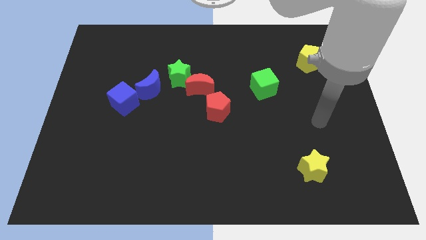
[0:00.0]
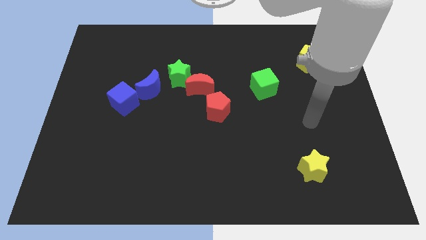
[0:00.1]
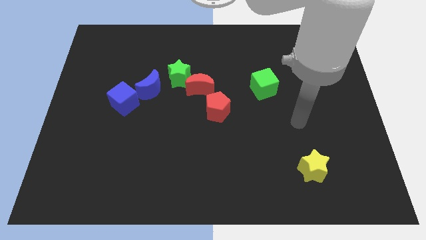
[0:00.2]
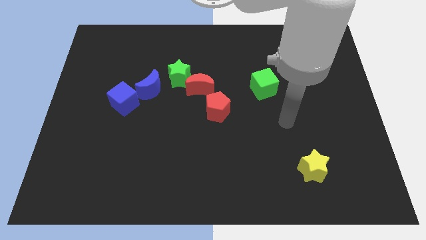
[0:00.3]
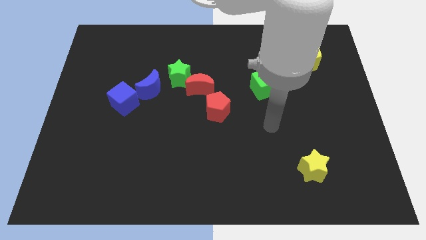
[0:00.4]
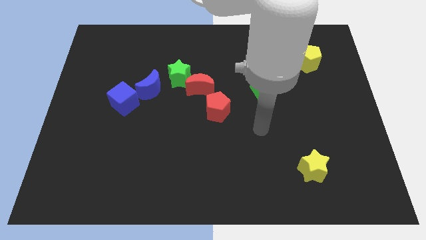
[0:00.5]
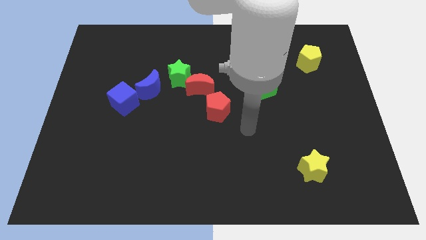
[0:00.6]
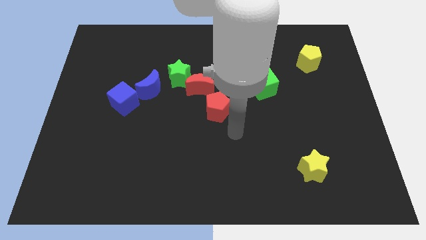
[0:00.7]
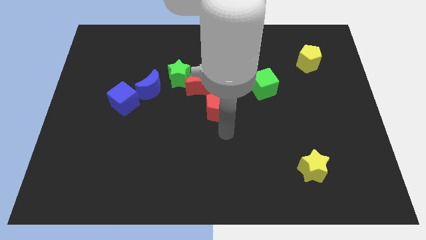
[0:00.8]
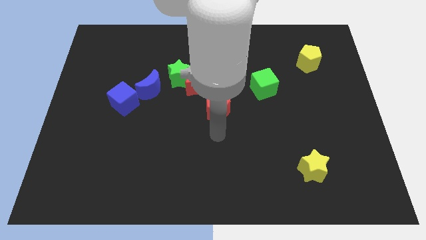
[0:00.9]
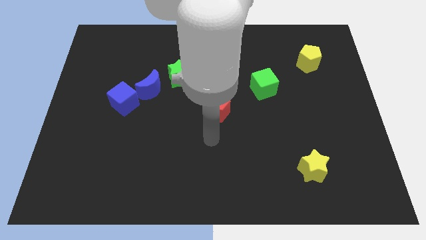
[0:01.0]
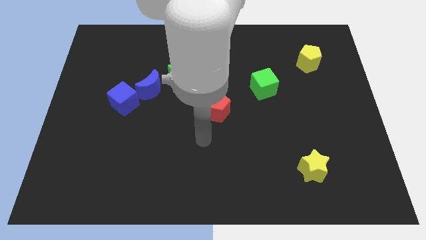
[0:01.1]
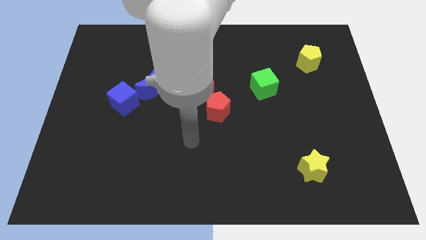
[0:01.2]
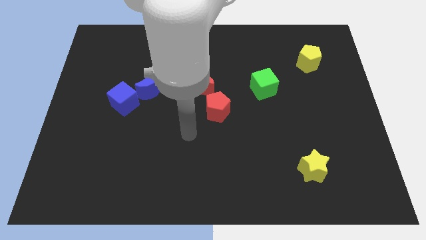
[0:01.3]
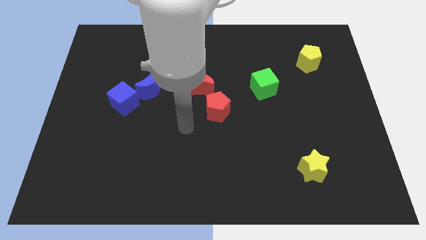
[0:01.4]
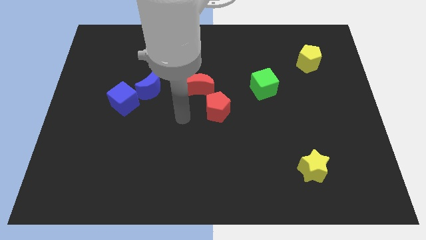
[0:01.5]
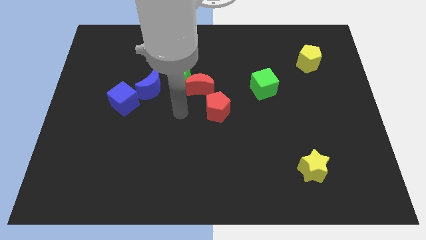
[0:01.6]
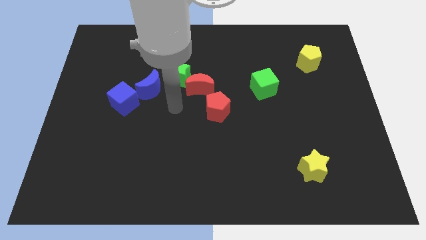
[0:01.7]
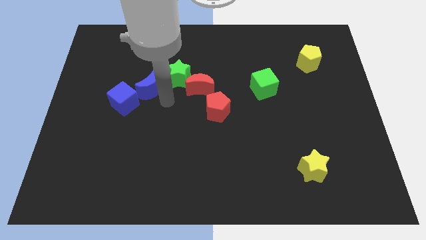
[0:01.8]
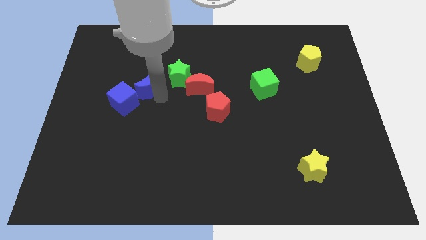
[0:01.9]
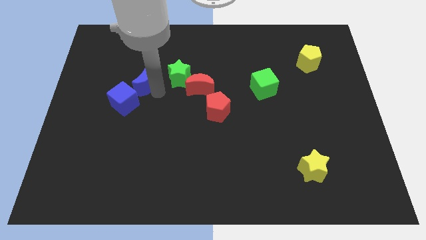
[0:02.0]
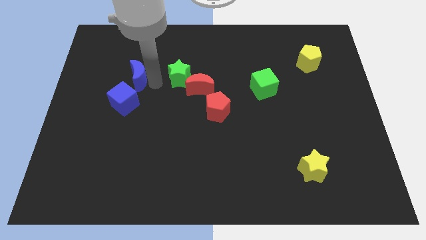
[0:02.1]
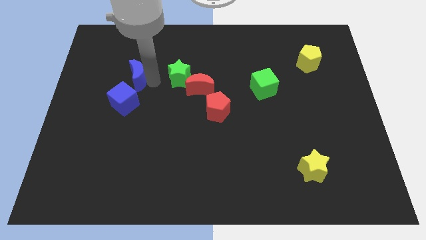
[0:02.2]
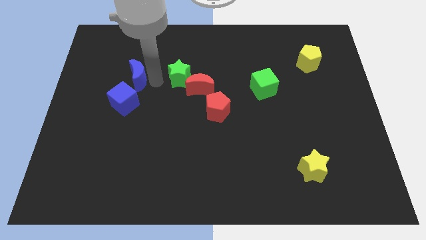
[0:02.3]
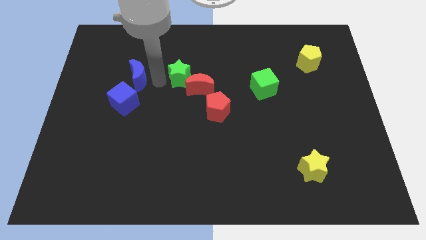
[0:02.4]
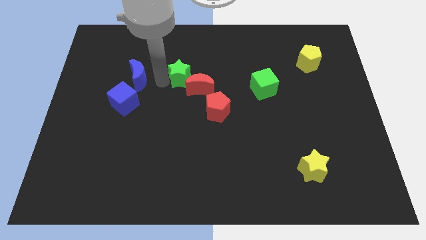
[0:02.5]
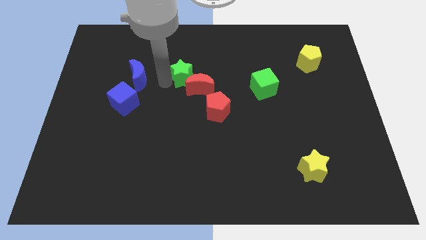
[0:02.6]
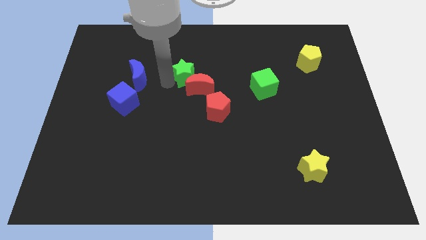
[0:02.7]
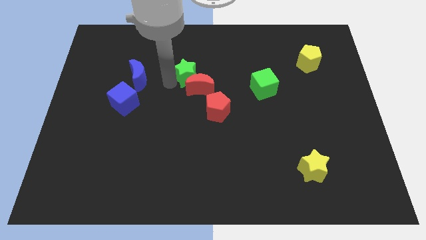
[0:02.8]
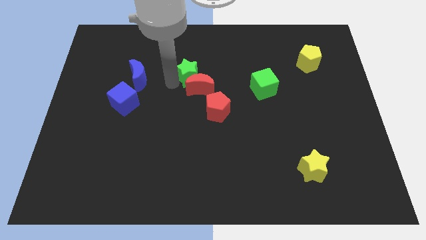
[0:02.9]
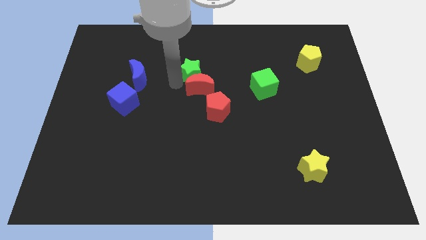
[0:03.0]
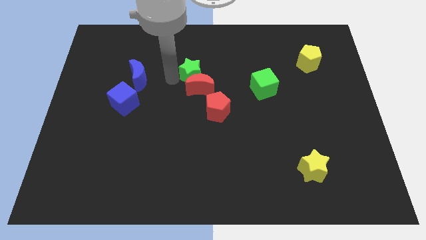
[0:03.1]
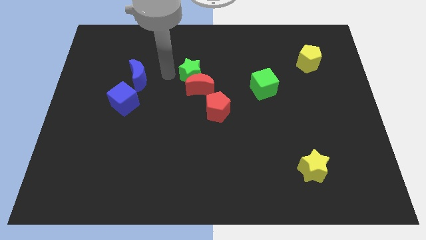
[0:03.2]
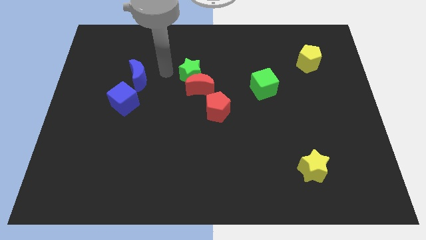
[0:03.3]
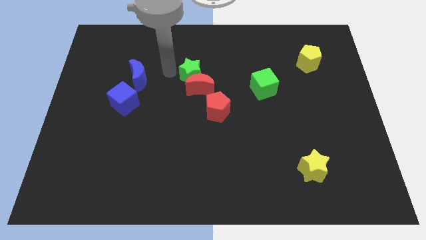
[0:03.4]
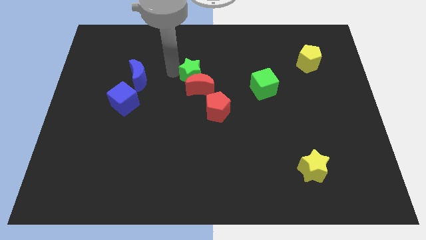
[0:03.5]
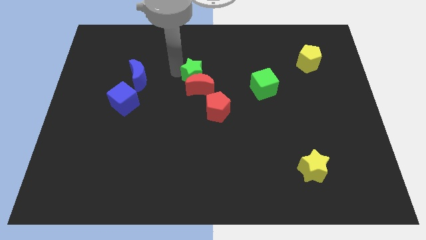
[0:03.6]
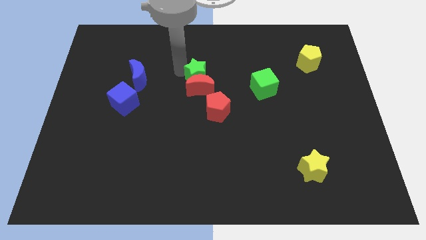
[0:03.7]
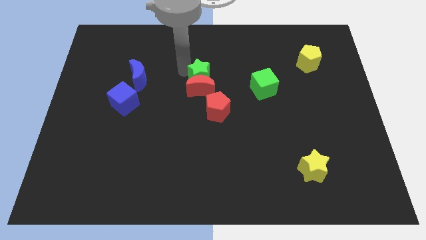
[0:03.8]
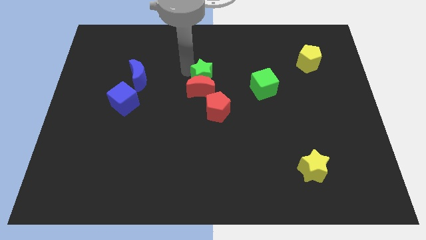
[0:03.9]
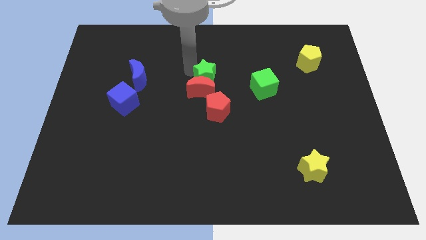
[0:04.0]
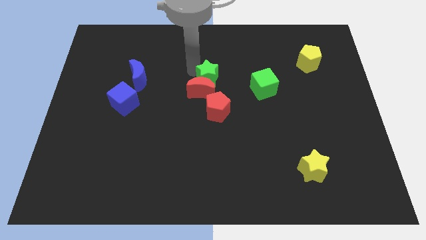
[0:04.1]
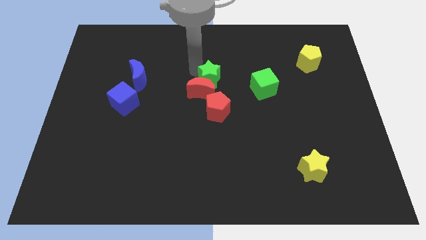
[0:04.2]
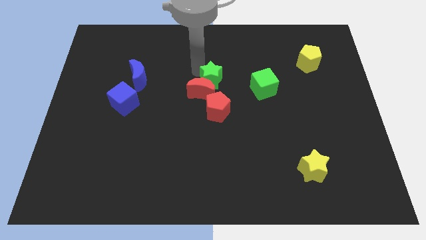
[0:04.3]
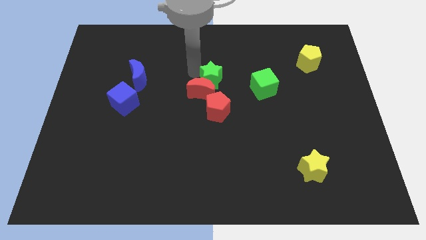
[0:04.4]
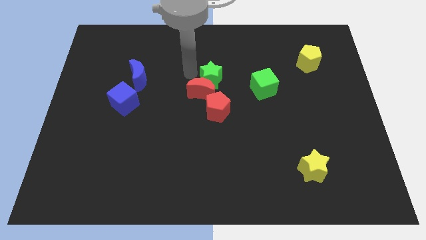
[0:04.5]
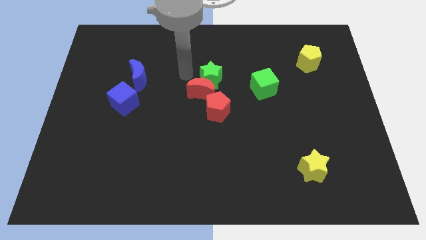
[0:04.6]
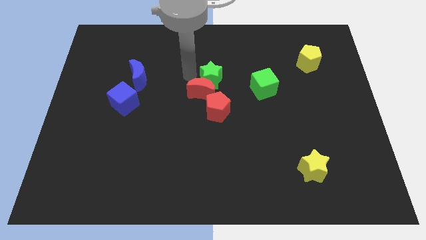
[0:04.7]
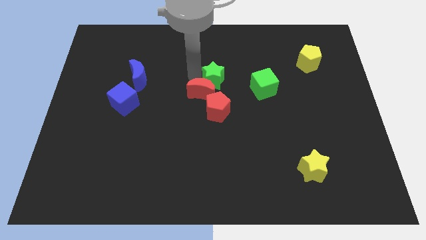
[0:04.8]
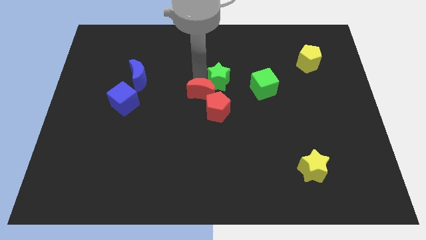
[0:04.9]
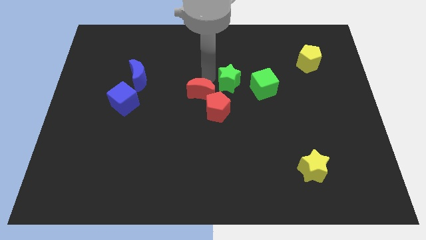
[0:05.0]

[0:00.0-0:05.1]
push the green star downwards and then to the right slightly

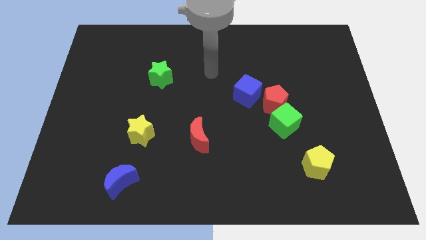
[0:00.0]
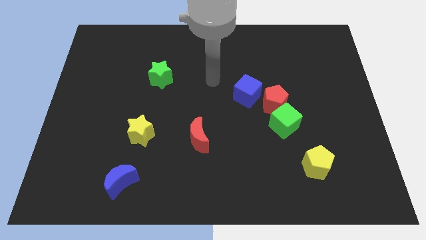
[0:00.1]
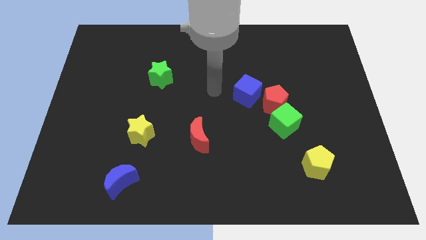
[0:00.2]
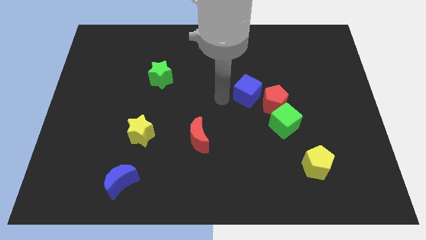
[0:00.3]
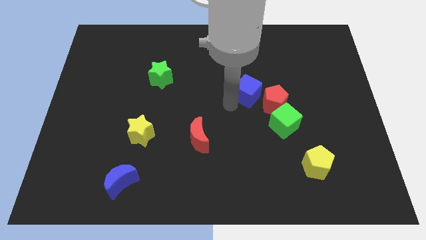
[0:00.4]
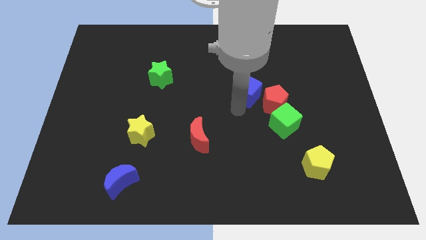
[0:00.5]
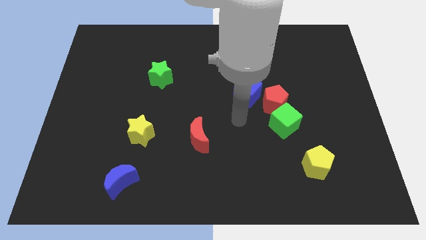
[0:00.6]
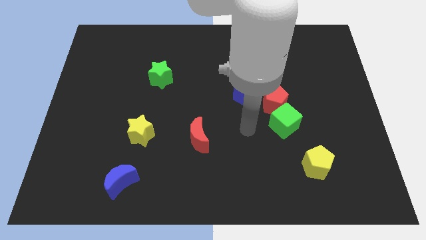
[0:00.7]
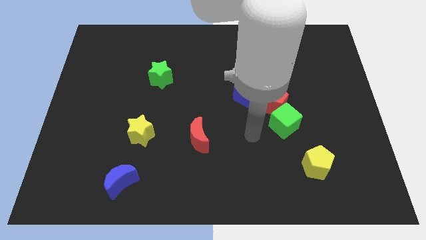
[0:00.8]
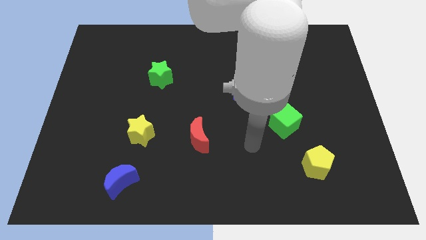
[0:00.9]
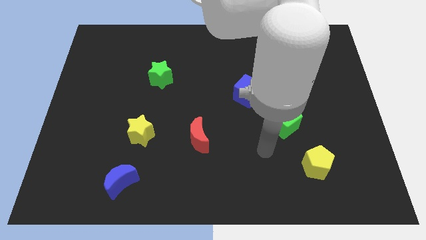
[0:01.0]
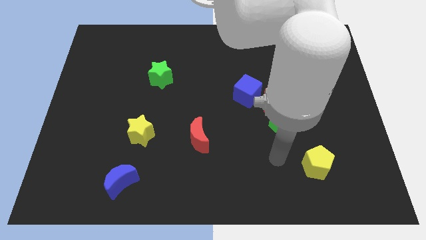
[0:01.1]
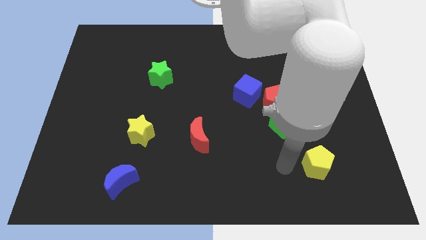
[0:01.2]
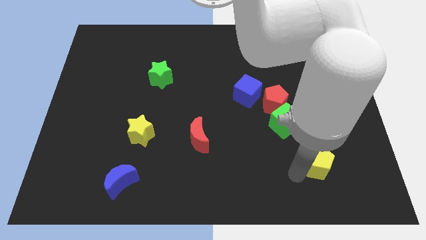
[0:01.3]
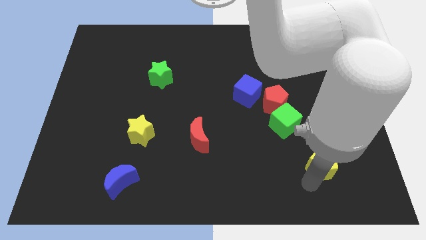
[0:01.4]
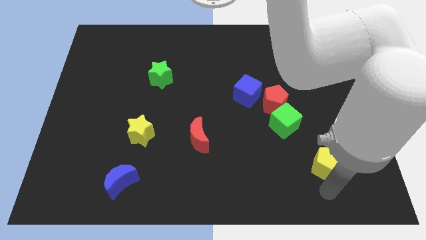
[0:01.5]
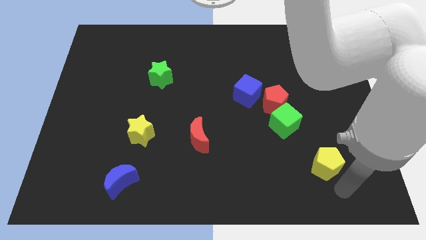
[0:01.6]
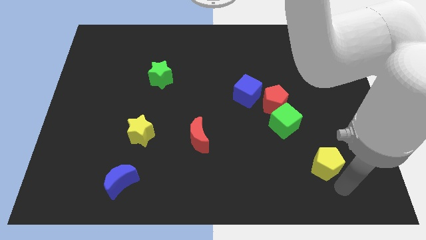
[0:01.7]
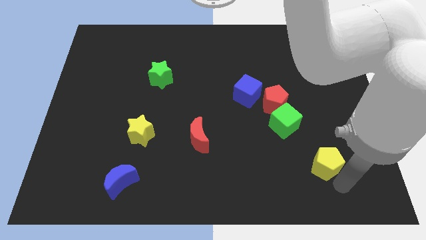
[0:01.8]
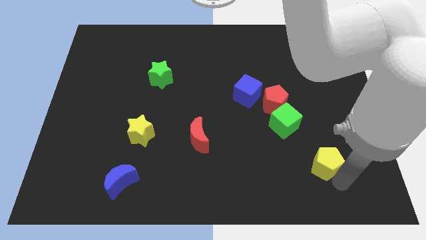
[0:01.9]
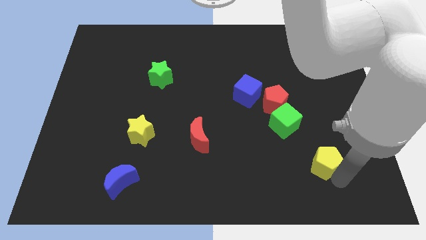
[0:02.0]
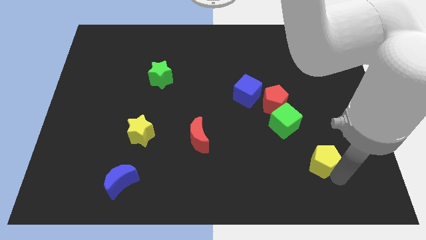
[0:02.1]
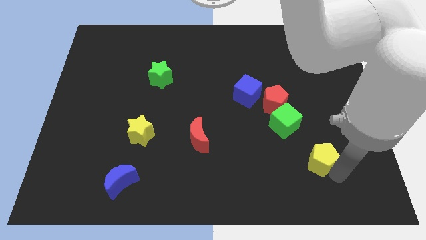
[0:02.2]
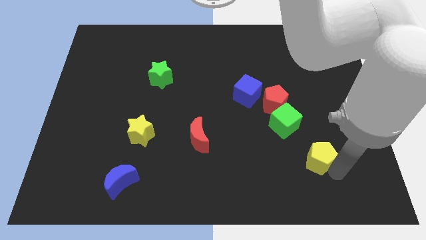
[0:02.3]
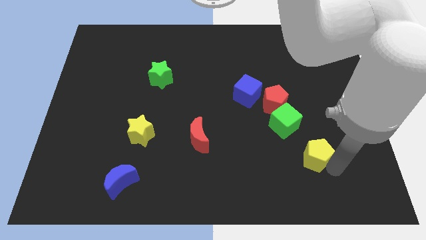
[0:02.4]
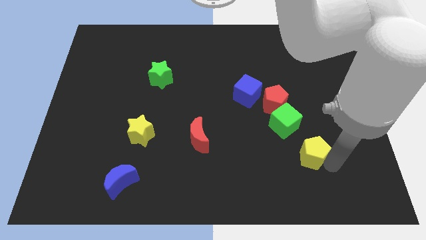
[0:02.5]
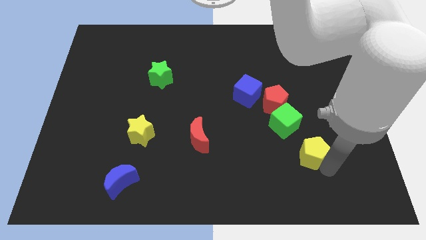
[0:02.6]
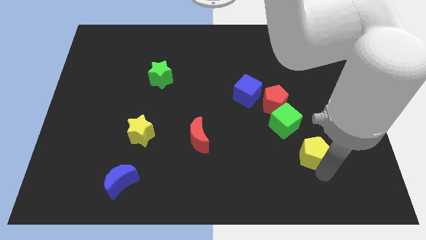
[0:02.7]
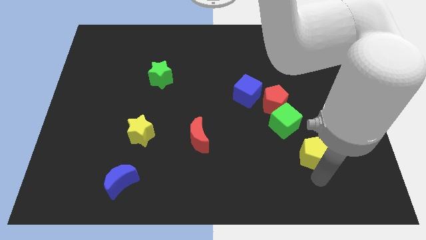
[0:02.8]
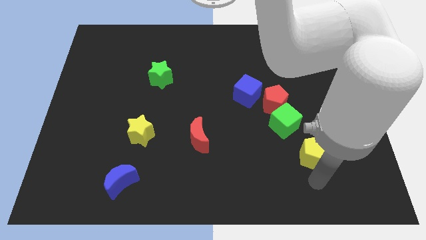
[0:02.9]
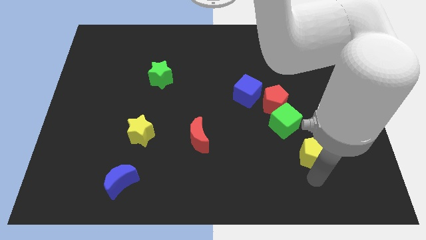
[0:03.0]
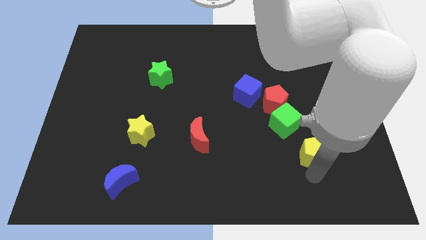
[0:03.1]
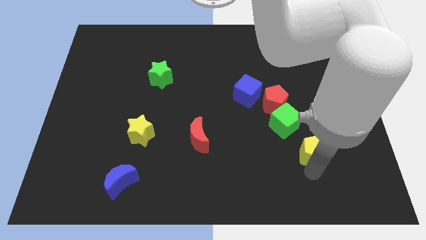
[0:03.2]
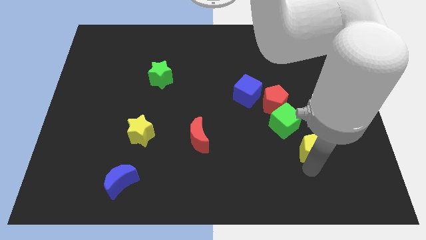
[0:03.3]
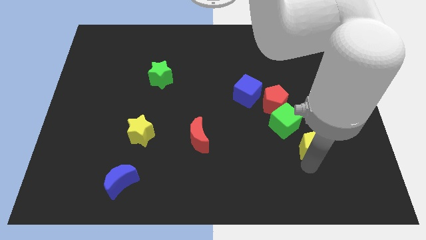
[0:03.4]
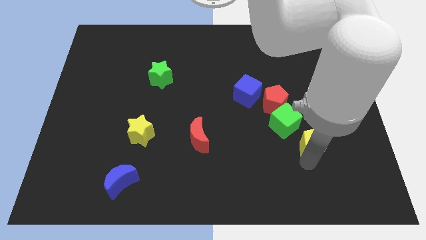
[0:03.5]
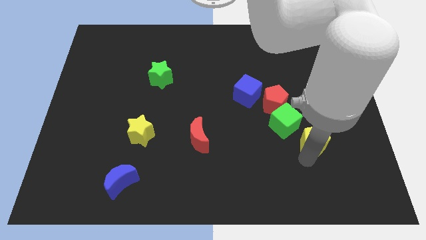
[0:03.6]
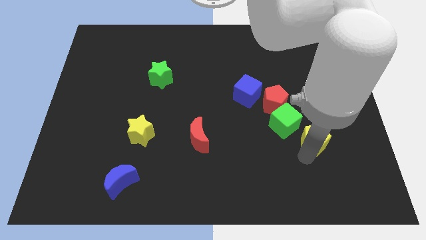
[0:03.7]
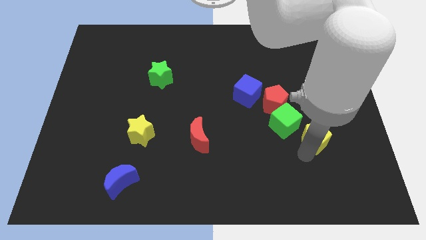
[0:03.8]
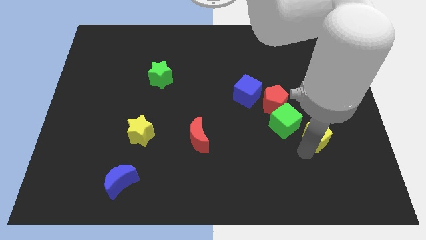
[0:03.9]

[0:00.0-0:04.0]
push the yellow pentagon a little upwards
